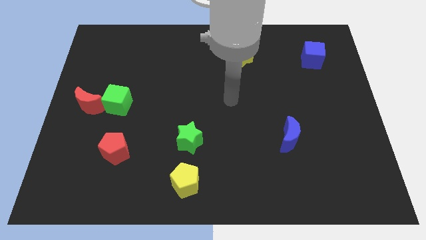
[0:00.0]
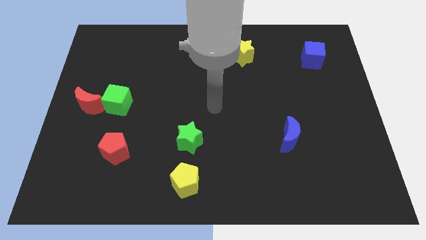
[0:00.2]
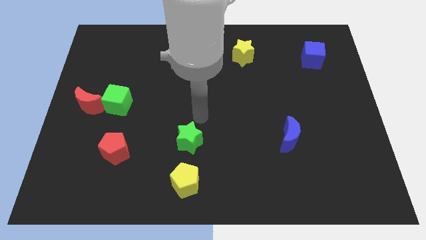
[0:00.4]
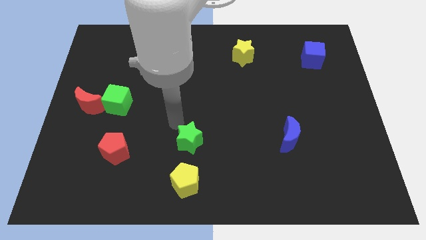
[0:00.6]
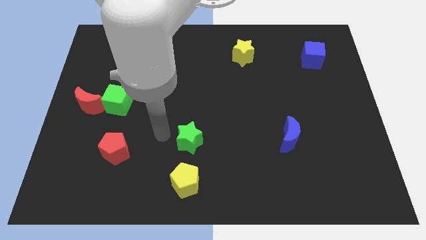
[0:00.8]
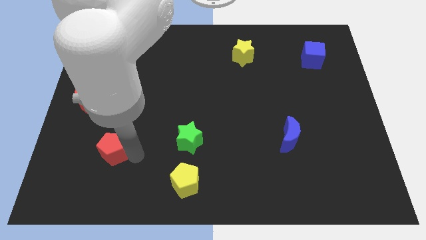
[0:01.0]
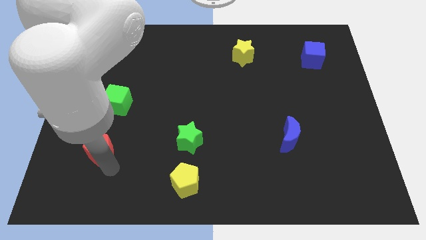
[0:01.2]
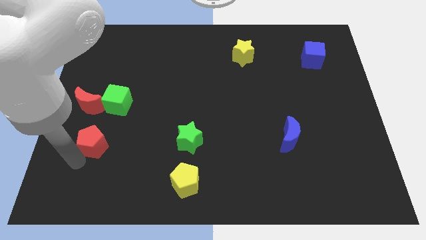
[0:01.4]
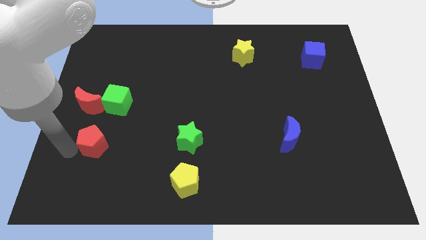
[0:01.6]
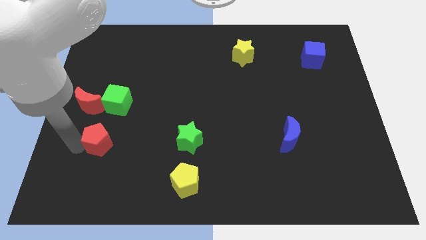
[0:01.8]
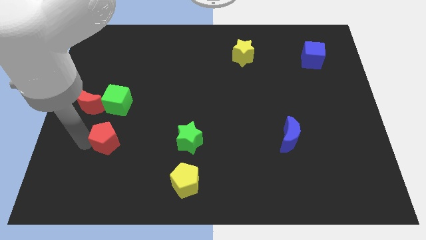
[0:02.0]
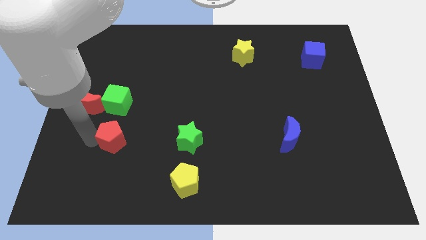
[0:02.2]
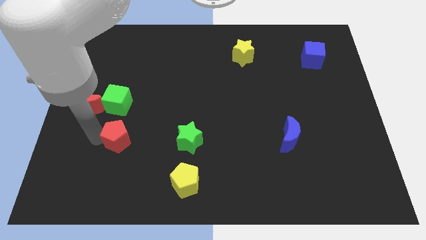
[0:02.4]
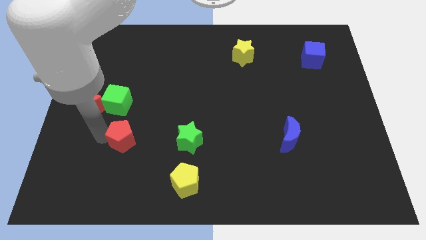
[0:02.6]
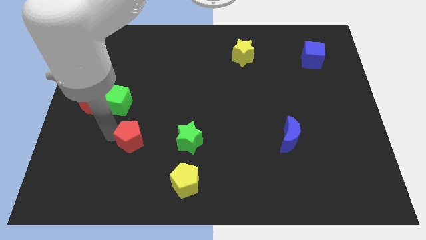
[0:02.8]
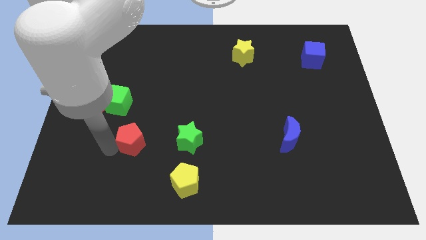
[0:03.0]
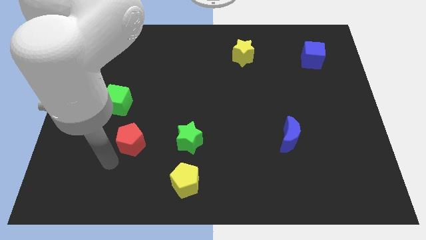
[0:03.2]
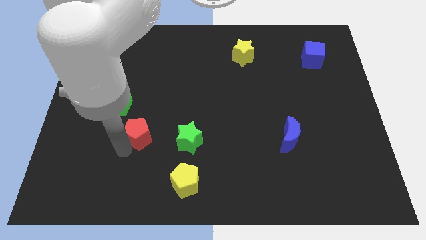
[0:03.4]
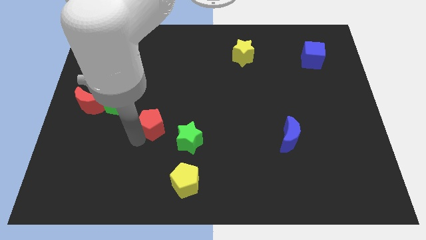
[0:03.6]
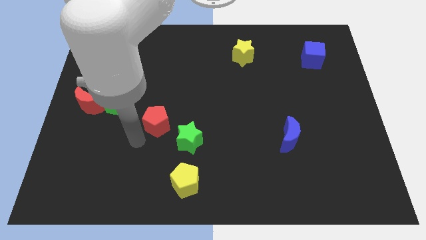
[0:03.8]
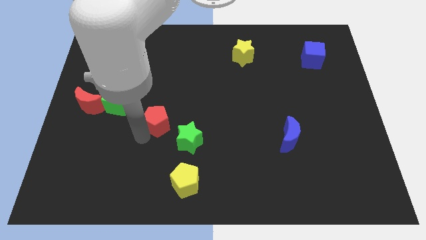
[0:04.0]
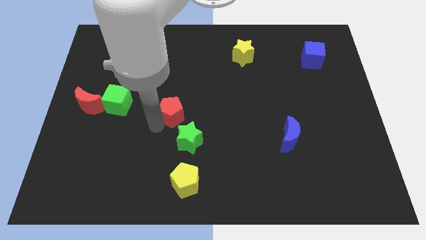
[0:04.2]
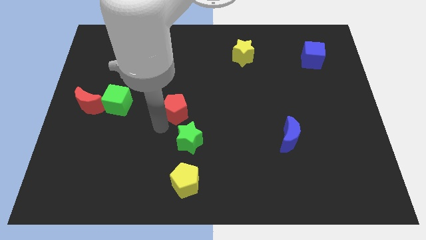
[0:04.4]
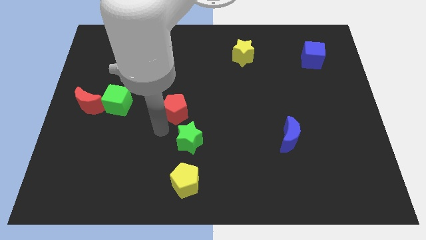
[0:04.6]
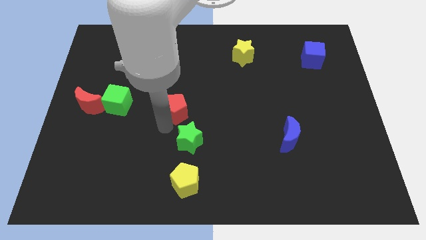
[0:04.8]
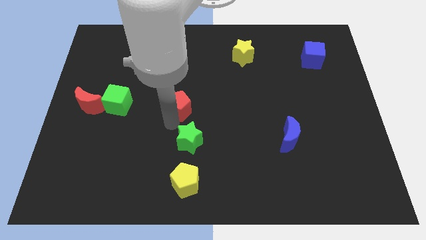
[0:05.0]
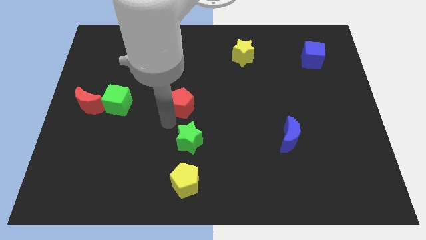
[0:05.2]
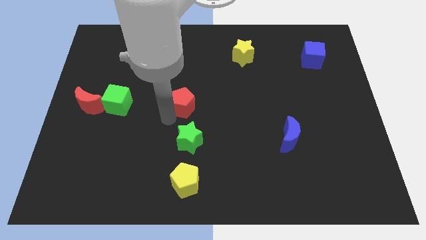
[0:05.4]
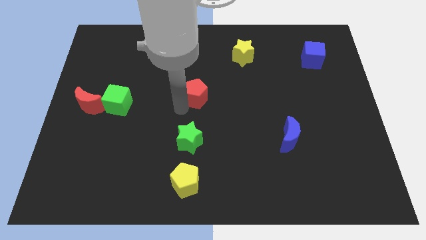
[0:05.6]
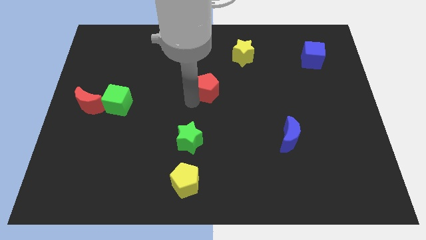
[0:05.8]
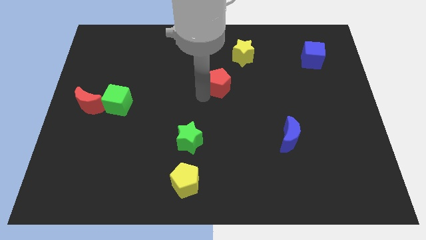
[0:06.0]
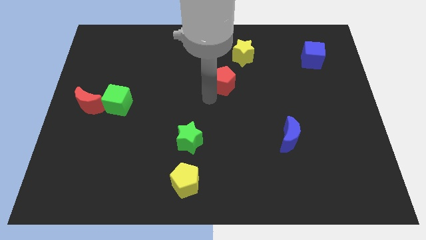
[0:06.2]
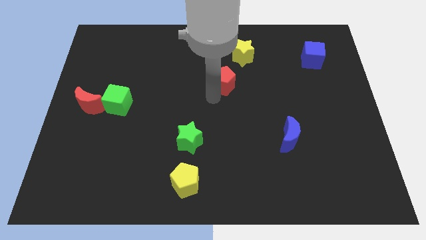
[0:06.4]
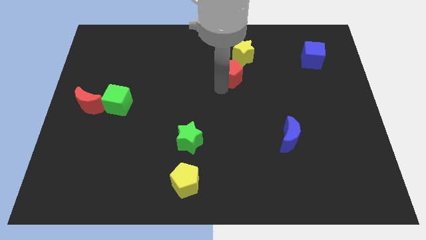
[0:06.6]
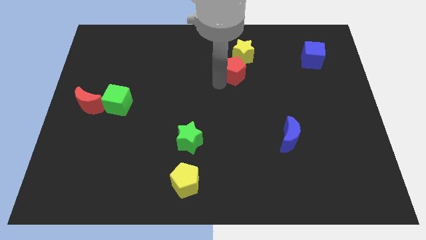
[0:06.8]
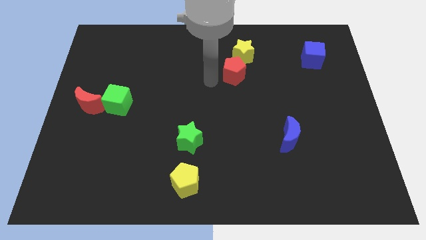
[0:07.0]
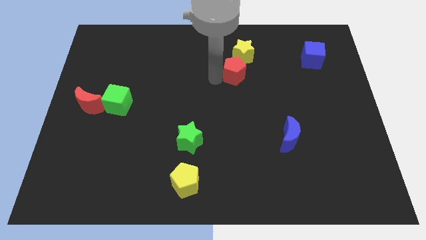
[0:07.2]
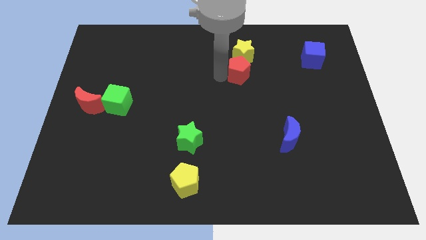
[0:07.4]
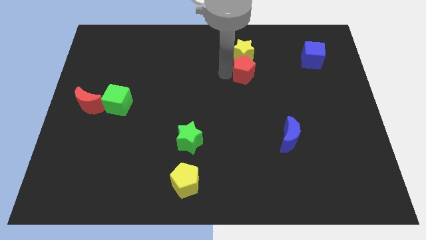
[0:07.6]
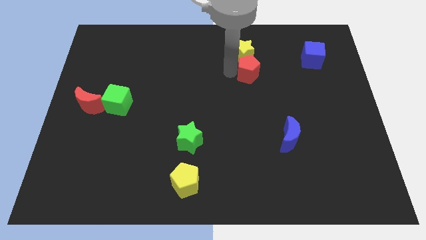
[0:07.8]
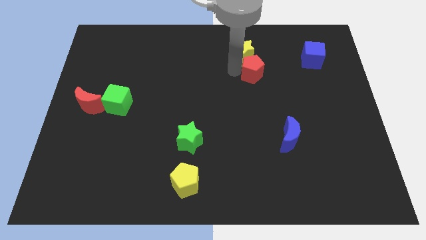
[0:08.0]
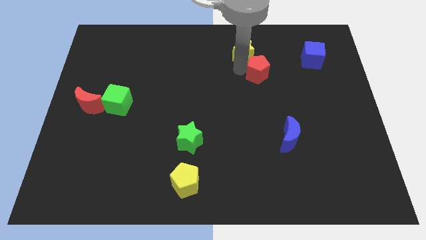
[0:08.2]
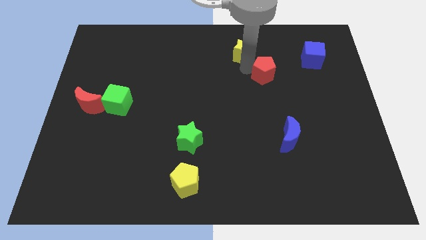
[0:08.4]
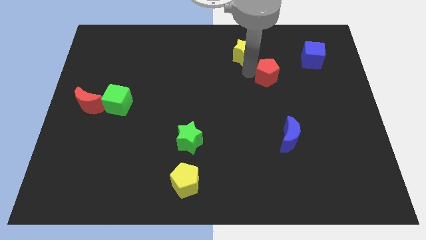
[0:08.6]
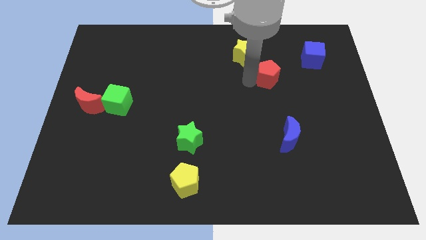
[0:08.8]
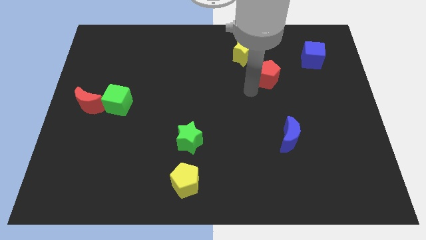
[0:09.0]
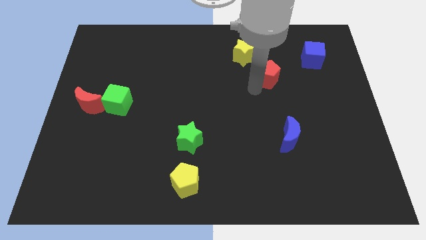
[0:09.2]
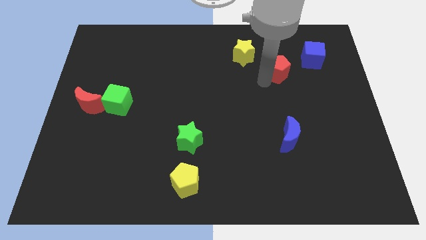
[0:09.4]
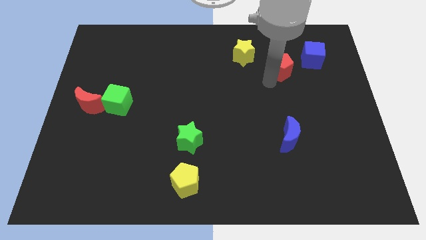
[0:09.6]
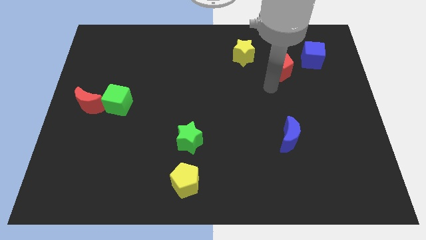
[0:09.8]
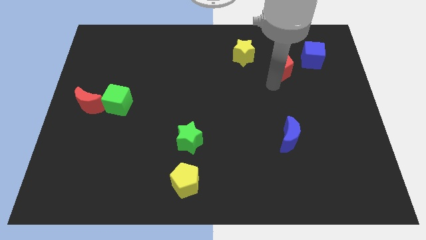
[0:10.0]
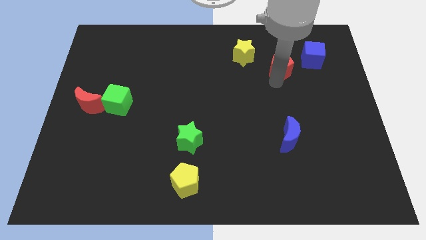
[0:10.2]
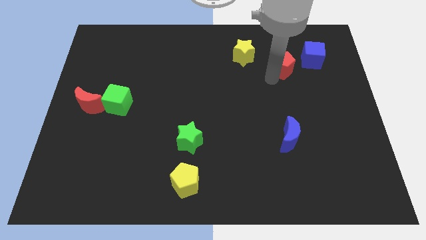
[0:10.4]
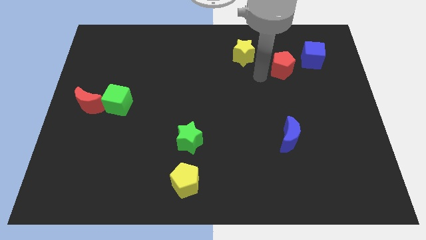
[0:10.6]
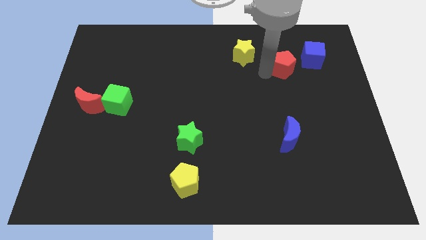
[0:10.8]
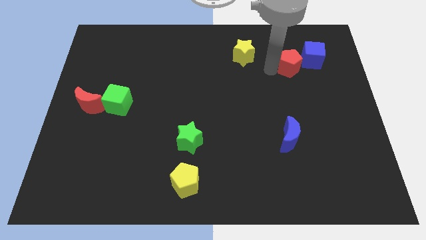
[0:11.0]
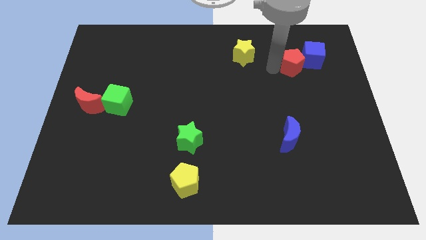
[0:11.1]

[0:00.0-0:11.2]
slide the red pentagon next to the blue cube

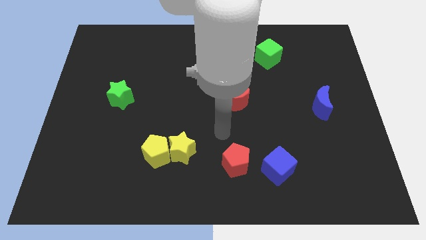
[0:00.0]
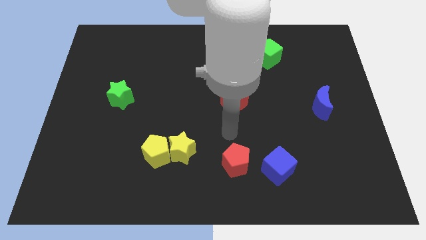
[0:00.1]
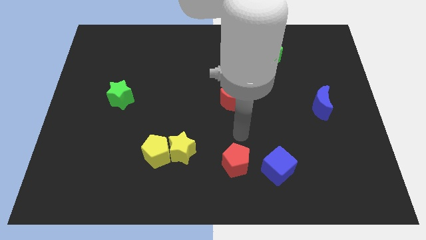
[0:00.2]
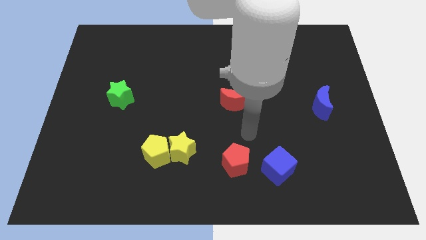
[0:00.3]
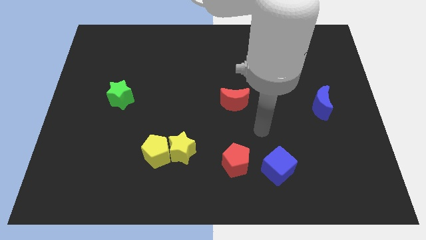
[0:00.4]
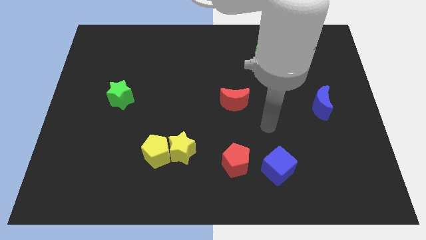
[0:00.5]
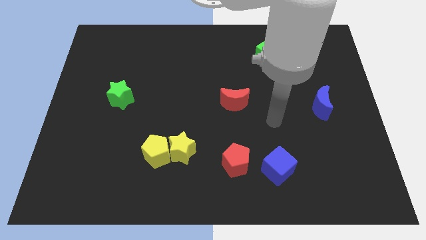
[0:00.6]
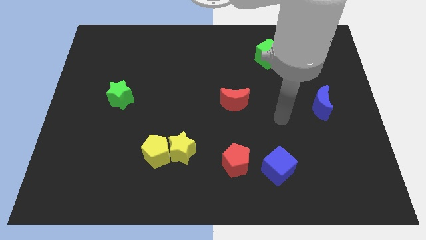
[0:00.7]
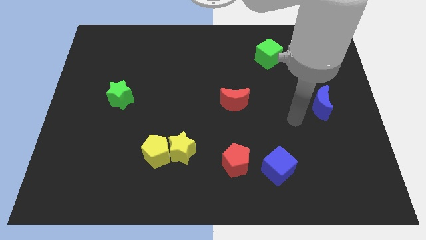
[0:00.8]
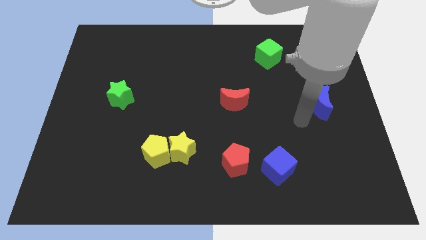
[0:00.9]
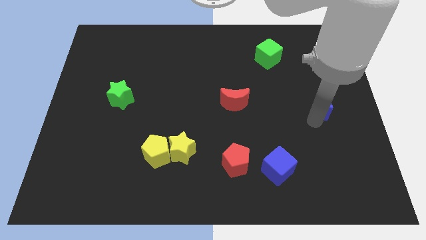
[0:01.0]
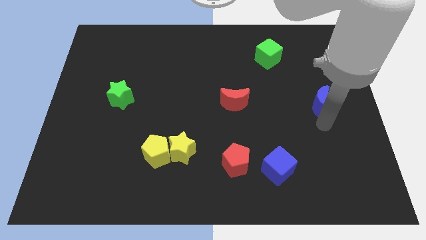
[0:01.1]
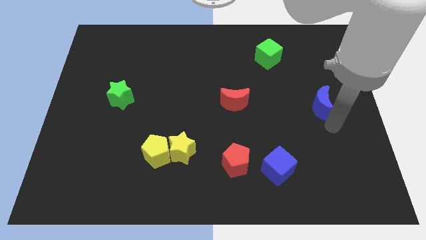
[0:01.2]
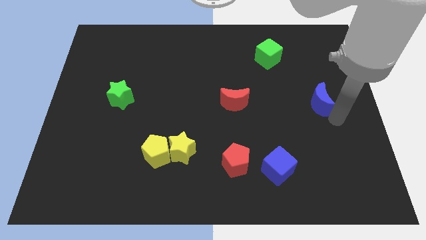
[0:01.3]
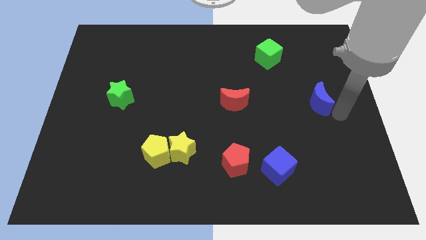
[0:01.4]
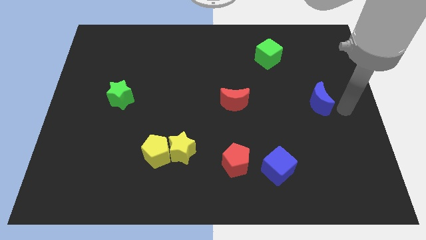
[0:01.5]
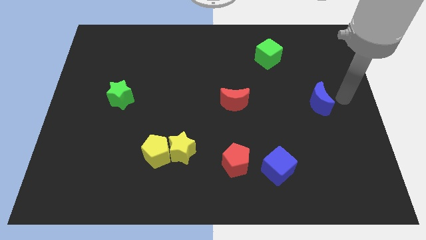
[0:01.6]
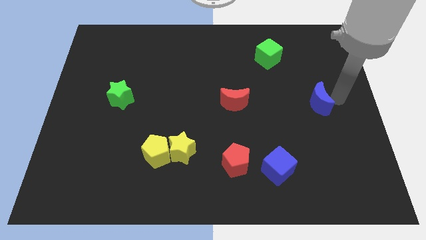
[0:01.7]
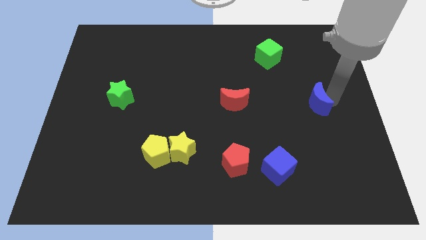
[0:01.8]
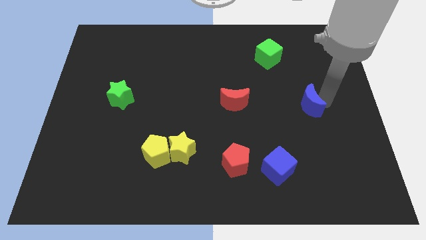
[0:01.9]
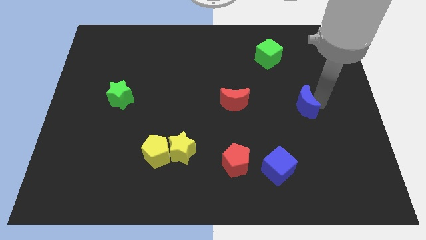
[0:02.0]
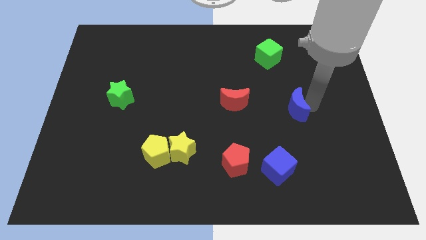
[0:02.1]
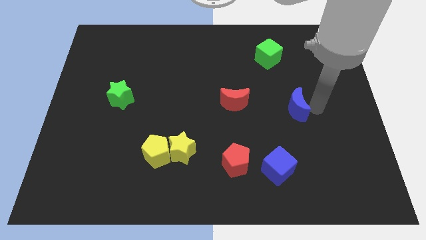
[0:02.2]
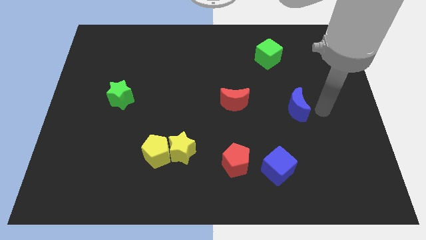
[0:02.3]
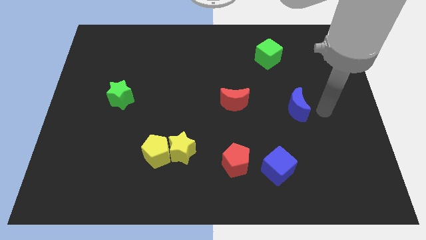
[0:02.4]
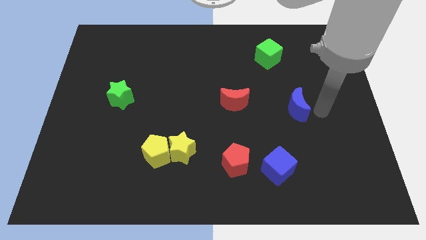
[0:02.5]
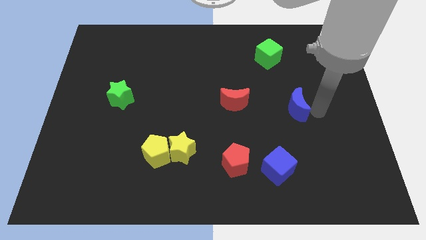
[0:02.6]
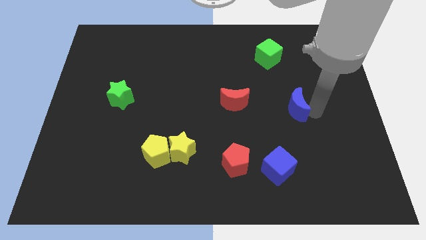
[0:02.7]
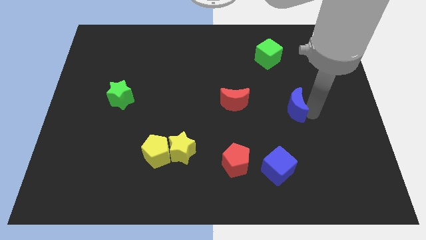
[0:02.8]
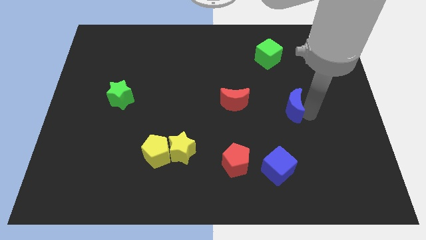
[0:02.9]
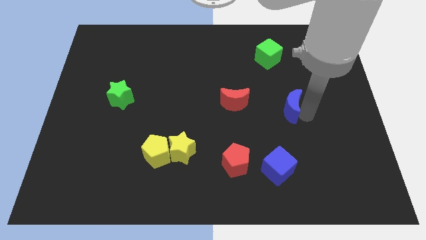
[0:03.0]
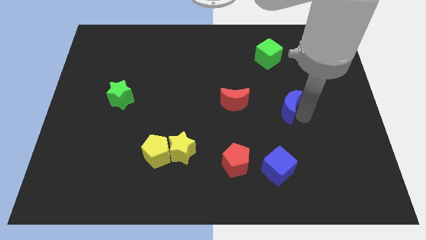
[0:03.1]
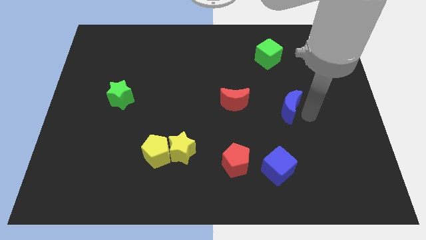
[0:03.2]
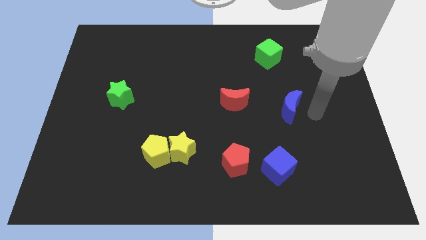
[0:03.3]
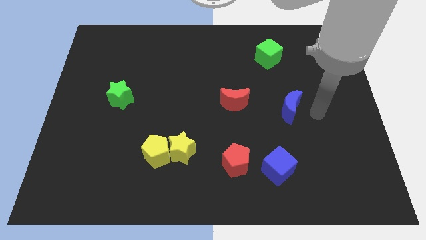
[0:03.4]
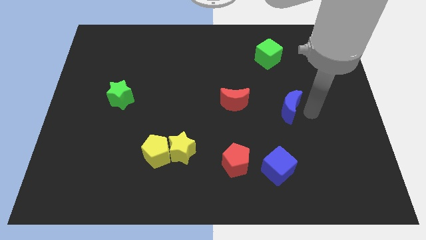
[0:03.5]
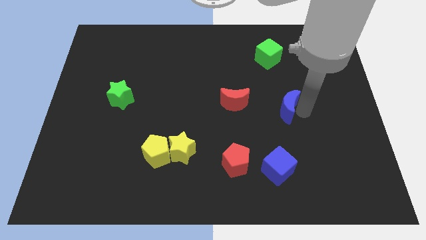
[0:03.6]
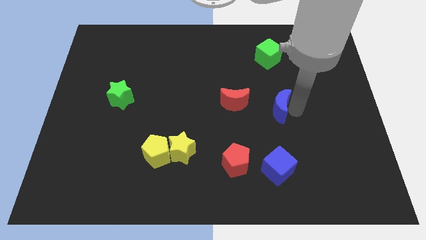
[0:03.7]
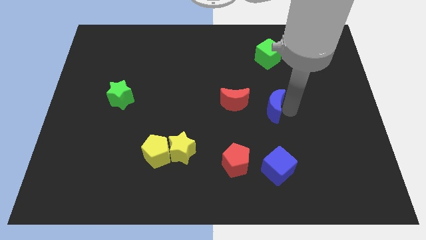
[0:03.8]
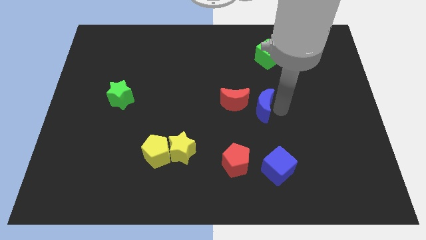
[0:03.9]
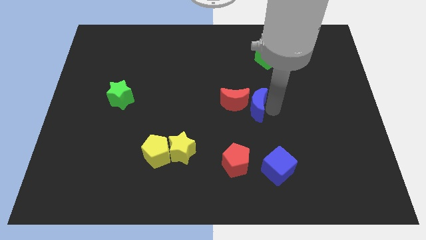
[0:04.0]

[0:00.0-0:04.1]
push the blue moon towards the red moon
